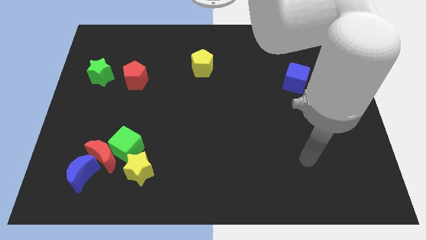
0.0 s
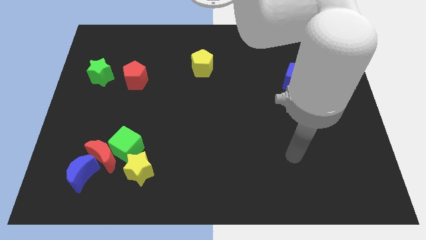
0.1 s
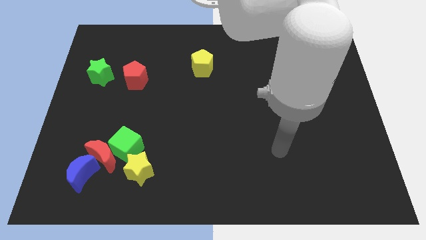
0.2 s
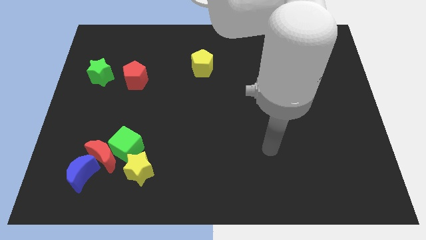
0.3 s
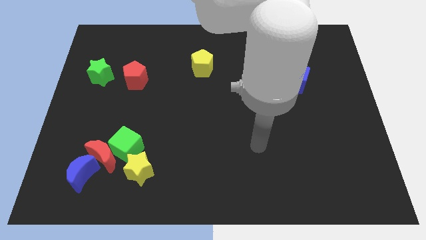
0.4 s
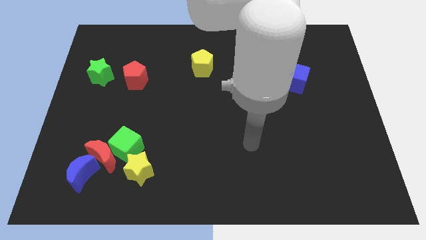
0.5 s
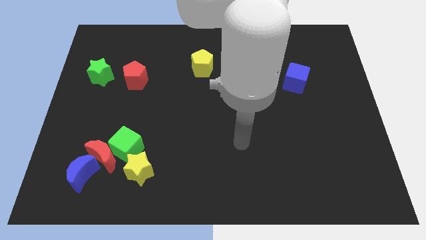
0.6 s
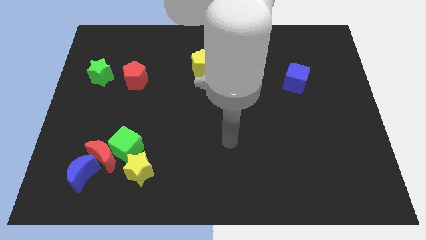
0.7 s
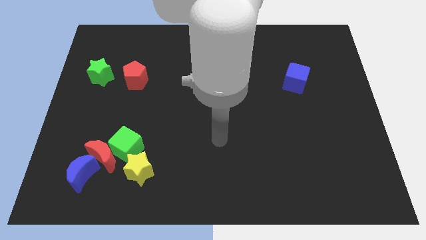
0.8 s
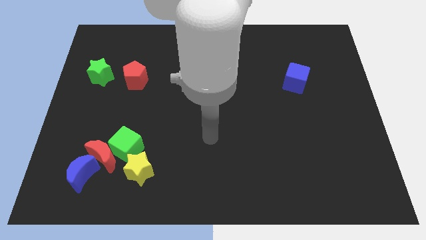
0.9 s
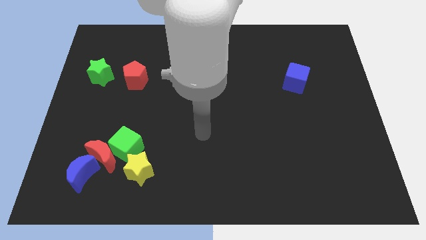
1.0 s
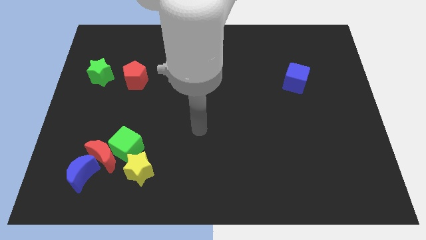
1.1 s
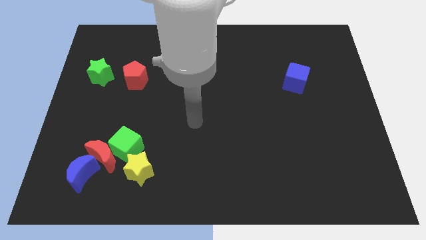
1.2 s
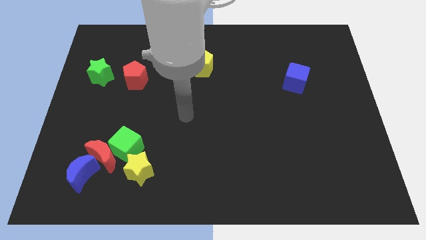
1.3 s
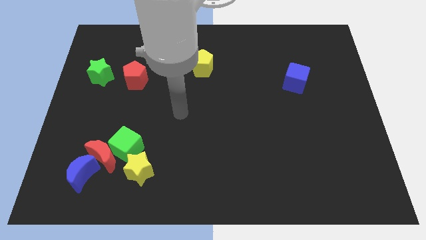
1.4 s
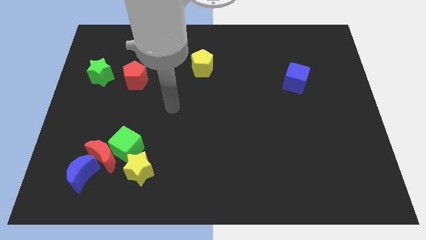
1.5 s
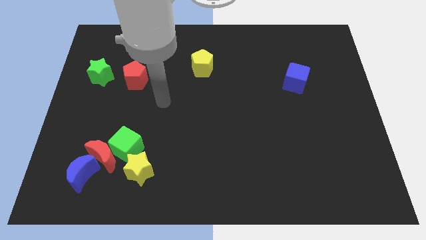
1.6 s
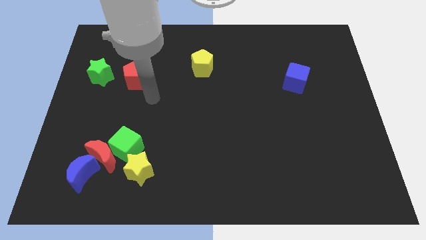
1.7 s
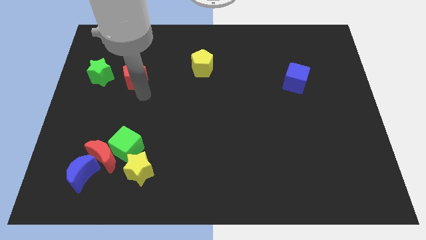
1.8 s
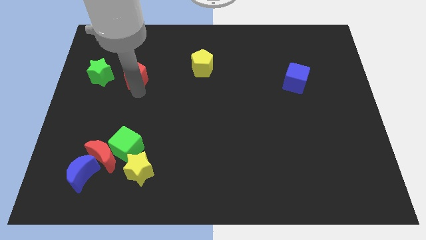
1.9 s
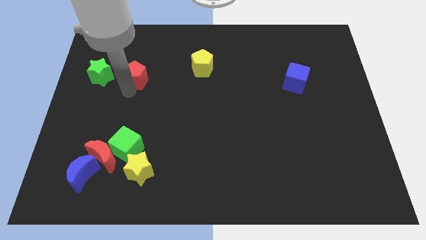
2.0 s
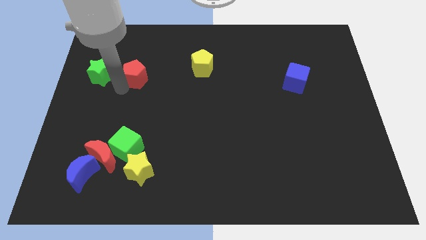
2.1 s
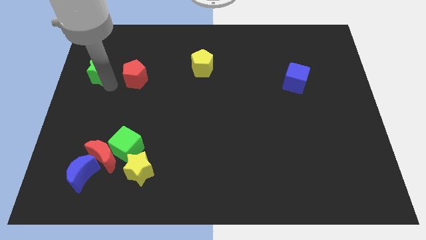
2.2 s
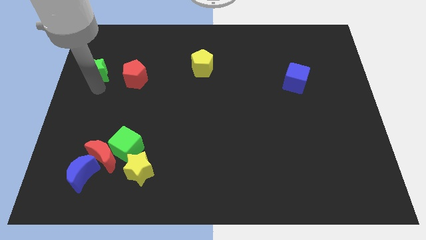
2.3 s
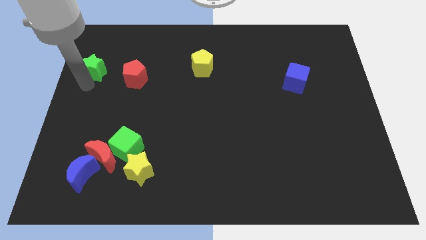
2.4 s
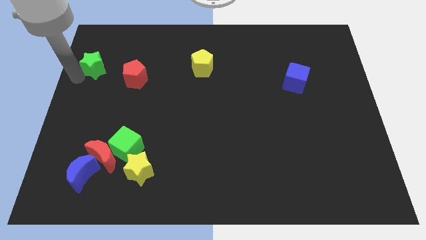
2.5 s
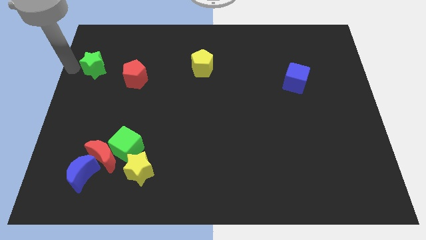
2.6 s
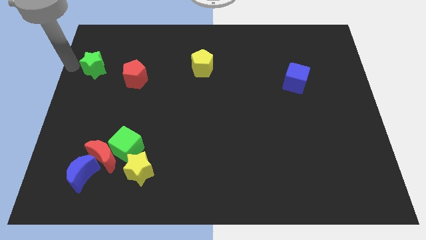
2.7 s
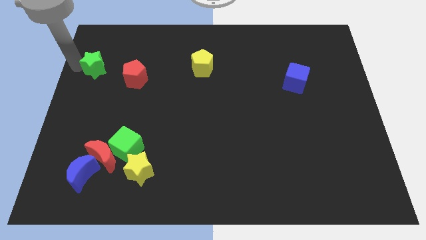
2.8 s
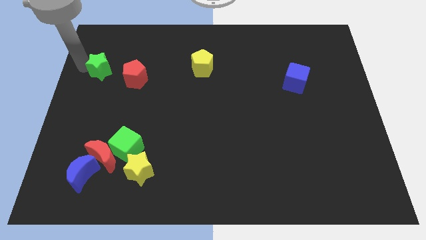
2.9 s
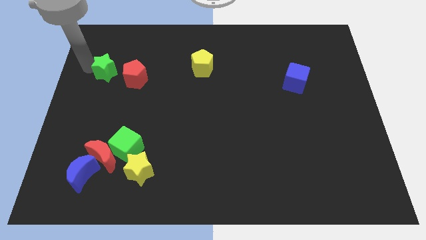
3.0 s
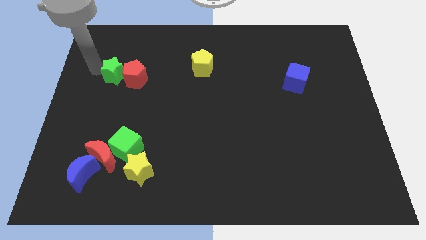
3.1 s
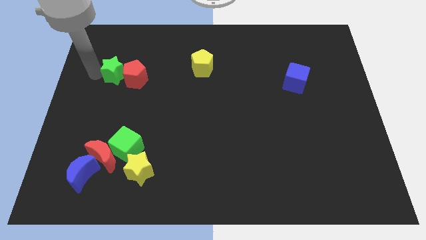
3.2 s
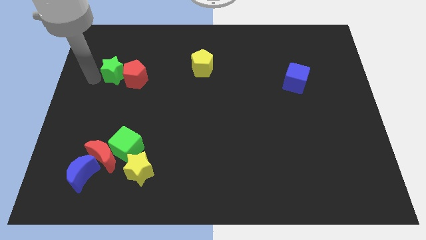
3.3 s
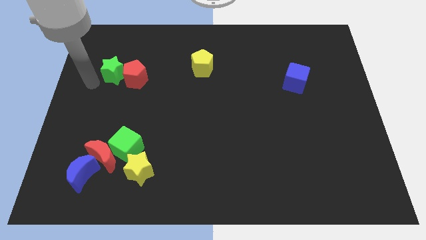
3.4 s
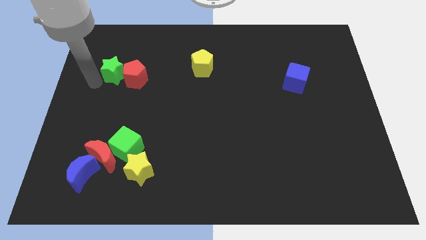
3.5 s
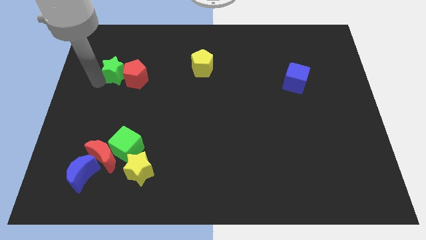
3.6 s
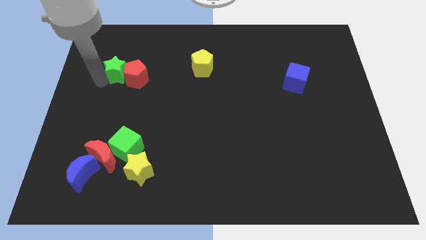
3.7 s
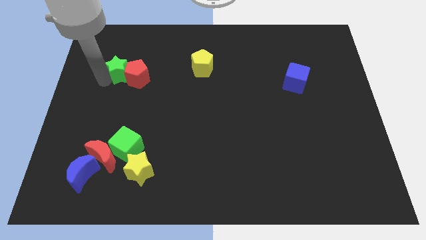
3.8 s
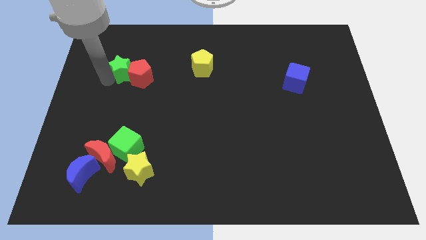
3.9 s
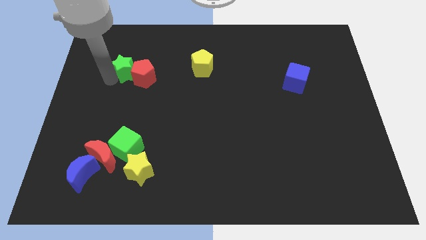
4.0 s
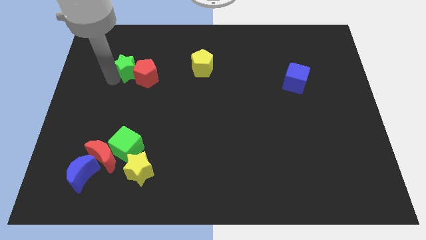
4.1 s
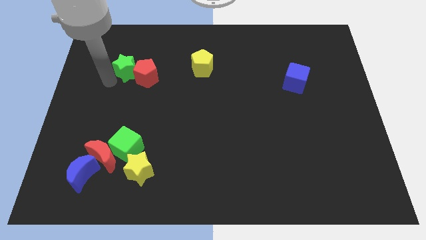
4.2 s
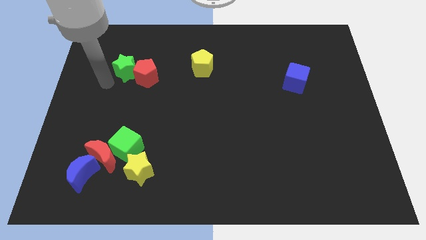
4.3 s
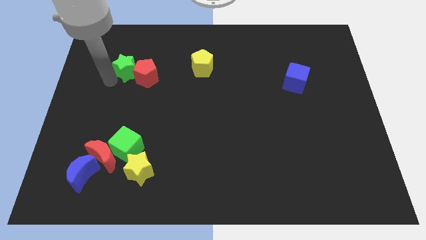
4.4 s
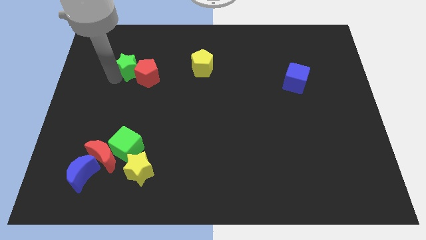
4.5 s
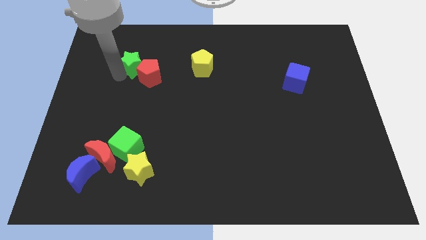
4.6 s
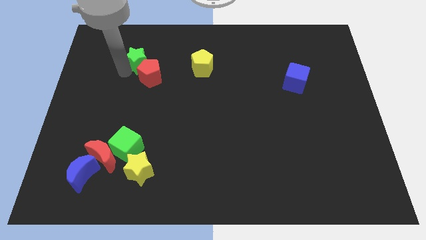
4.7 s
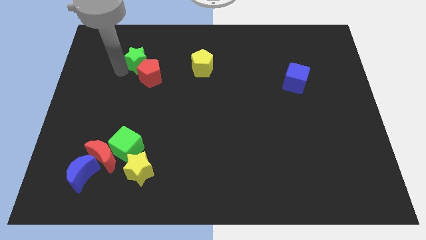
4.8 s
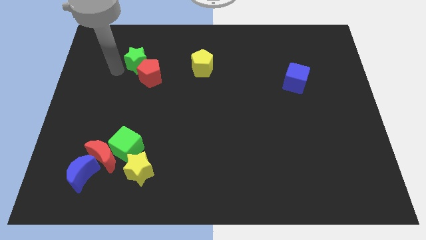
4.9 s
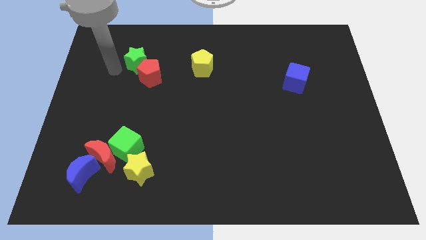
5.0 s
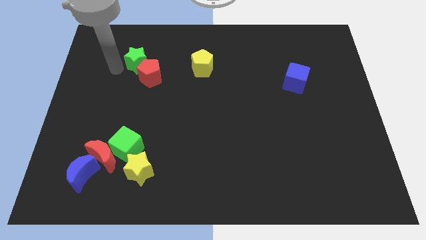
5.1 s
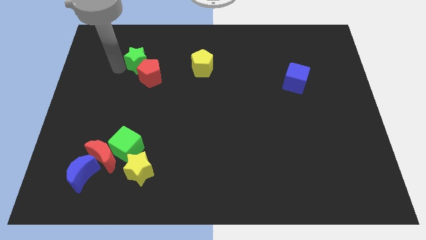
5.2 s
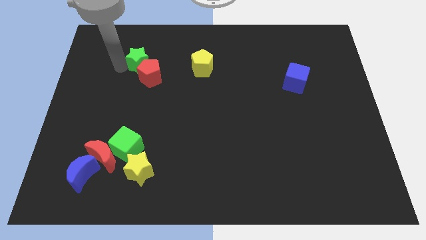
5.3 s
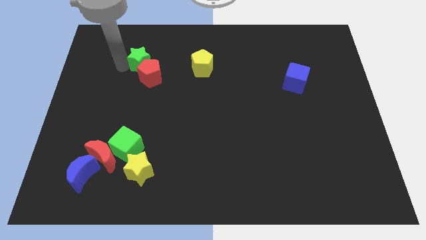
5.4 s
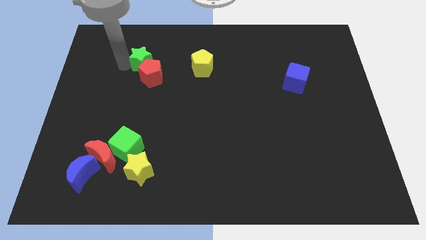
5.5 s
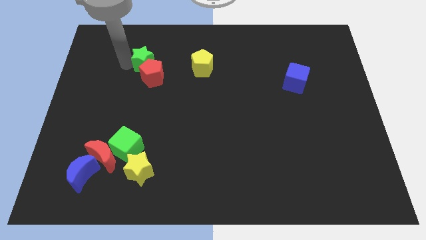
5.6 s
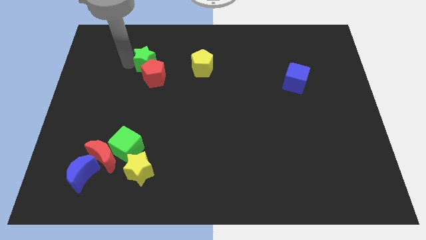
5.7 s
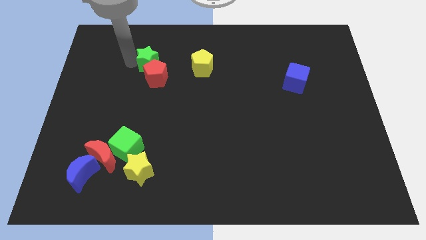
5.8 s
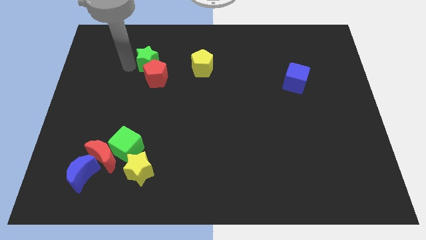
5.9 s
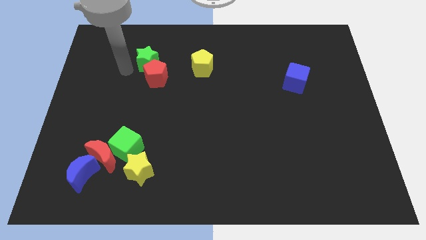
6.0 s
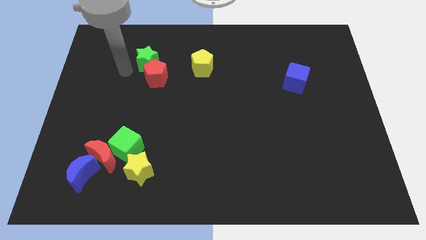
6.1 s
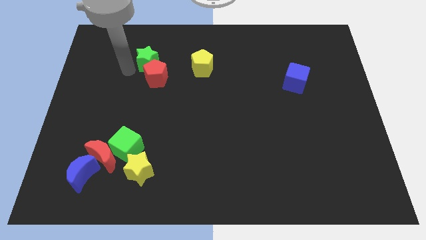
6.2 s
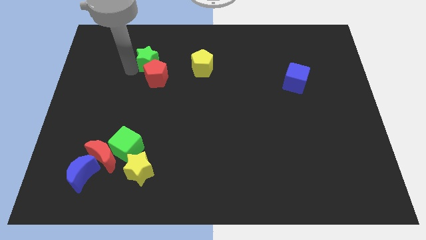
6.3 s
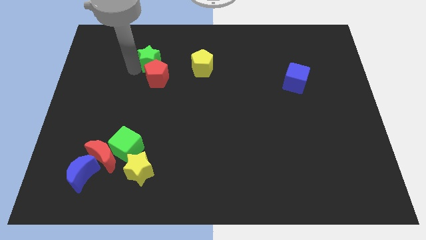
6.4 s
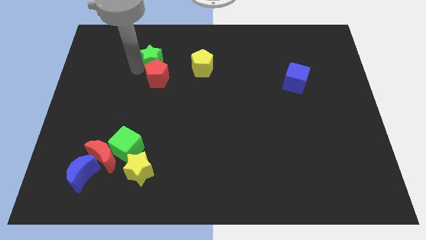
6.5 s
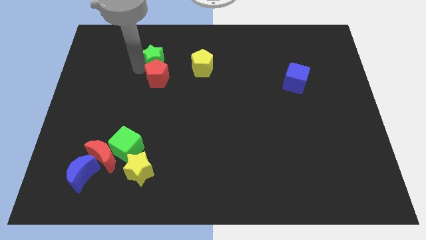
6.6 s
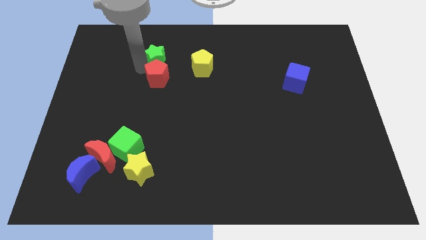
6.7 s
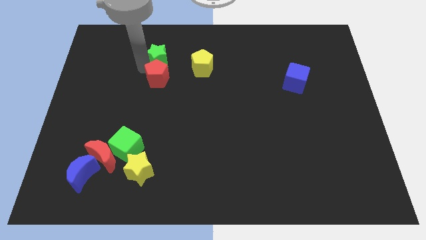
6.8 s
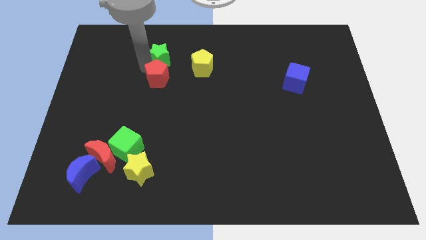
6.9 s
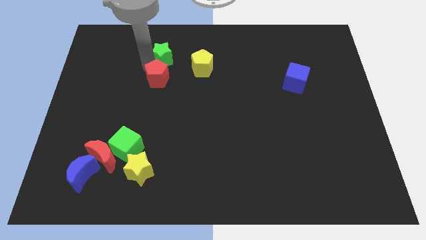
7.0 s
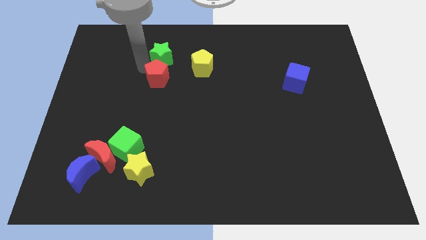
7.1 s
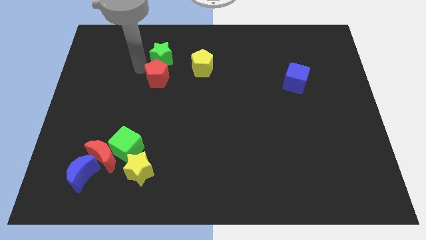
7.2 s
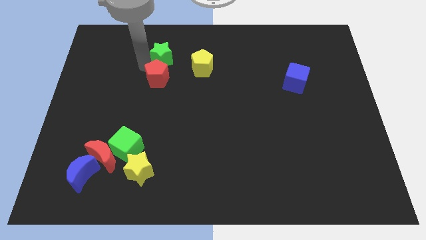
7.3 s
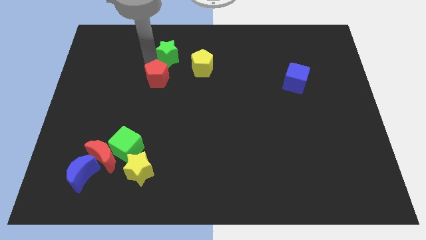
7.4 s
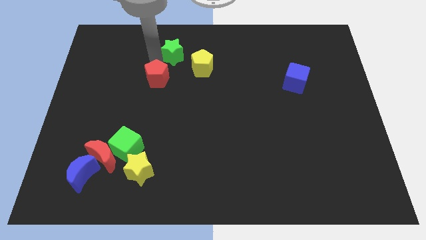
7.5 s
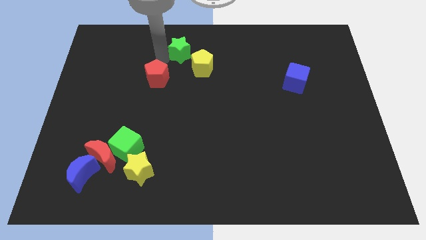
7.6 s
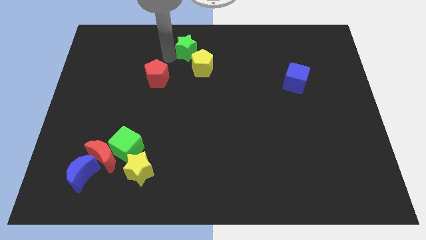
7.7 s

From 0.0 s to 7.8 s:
slide the green star to the top
